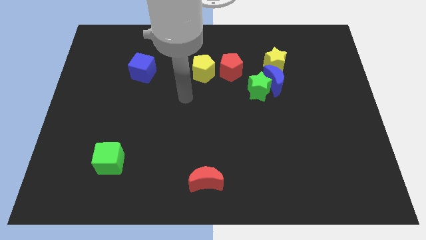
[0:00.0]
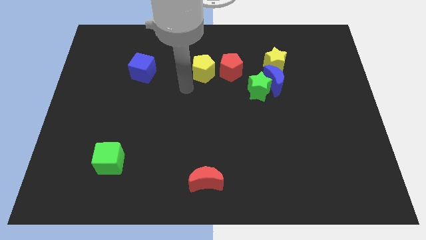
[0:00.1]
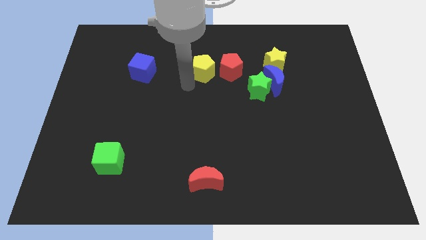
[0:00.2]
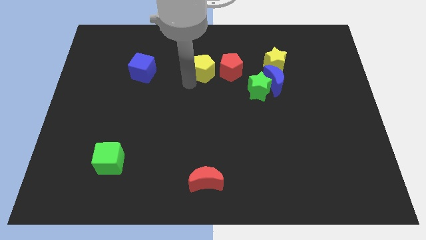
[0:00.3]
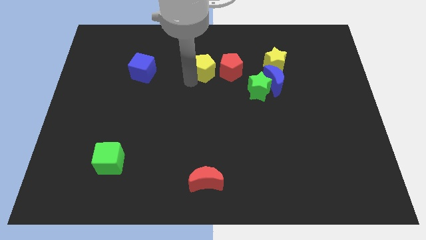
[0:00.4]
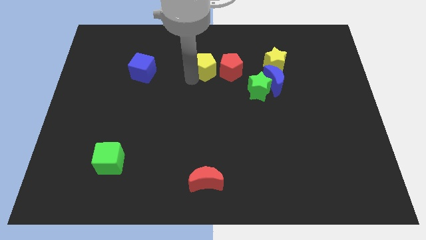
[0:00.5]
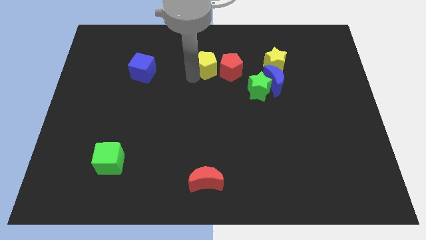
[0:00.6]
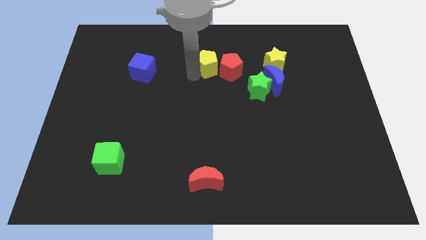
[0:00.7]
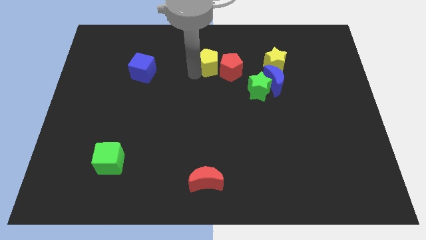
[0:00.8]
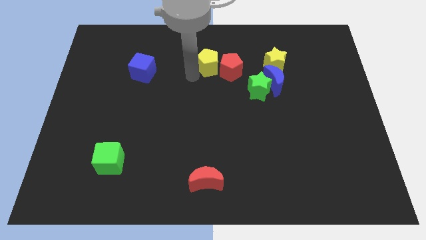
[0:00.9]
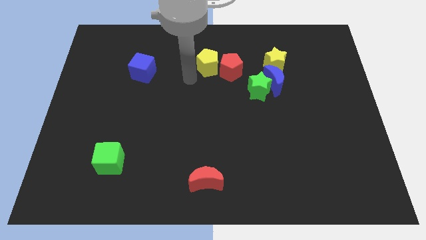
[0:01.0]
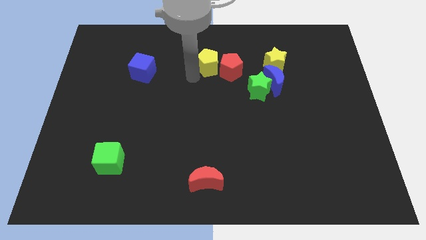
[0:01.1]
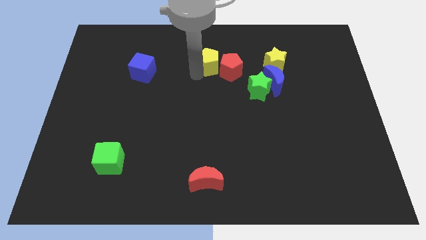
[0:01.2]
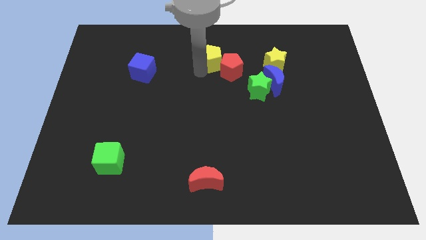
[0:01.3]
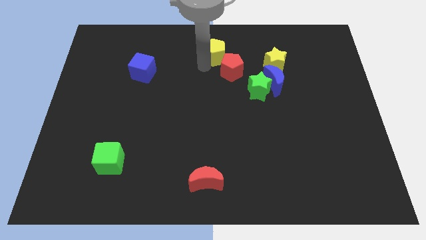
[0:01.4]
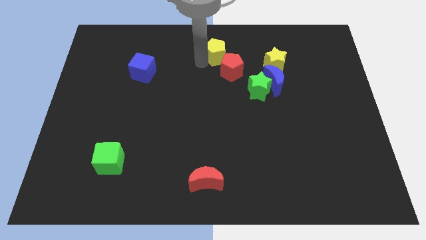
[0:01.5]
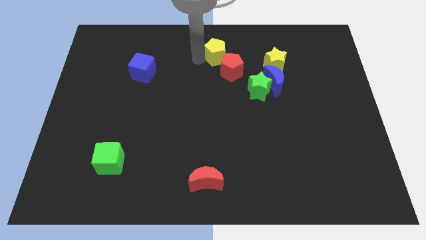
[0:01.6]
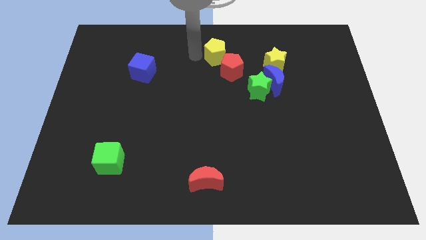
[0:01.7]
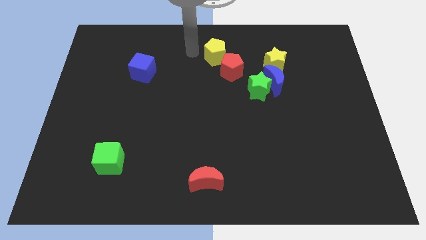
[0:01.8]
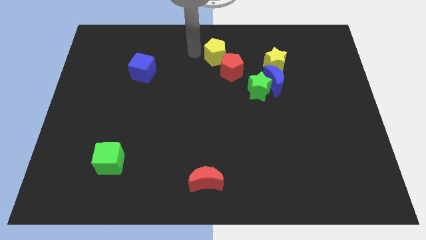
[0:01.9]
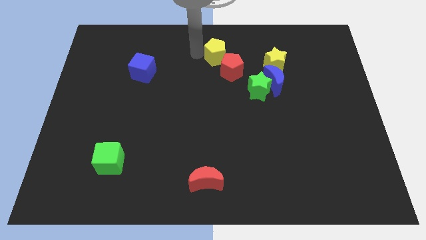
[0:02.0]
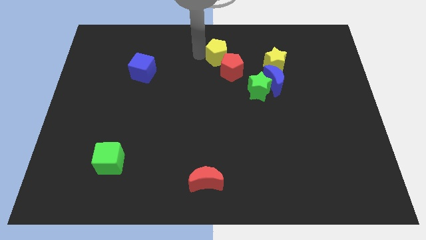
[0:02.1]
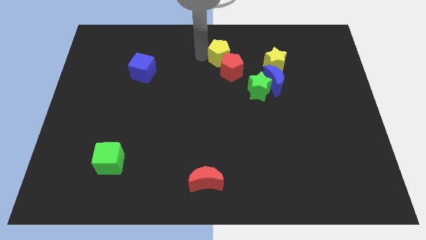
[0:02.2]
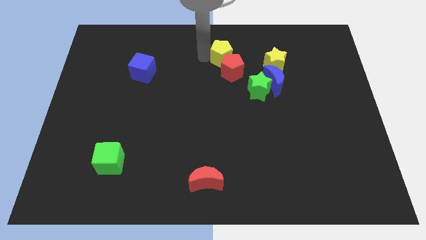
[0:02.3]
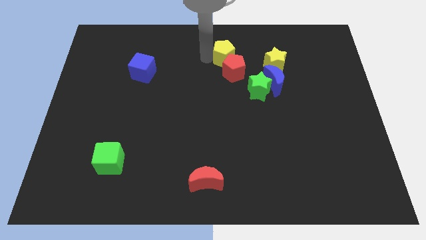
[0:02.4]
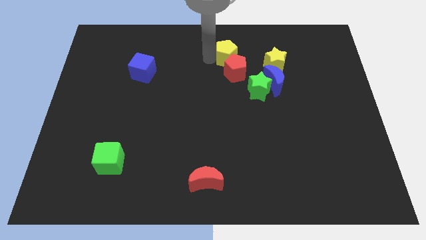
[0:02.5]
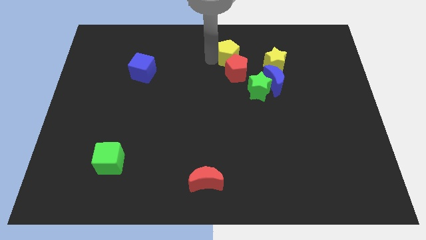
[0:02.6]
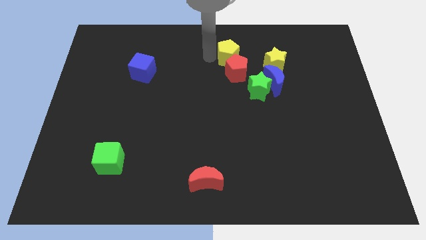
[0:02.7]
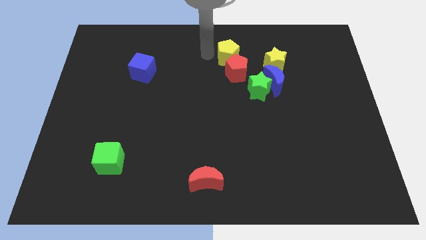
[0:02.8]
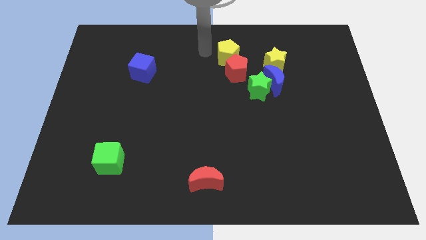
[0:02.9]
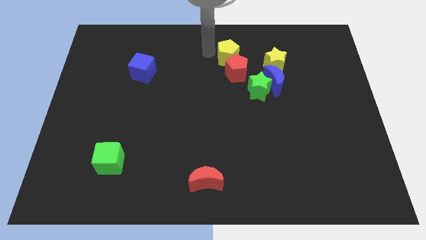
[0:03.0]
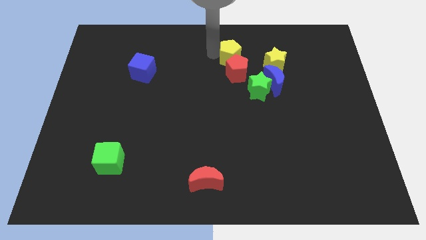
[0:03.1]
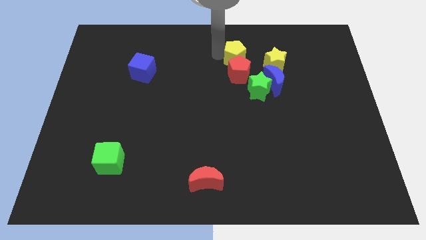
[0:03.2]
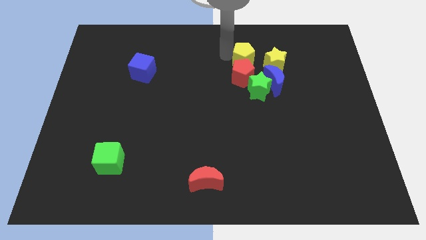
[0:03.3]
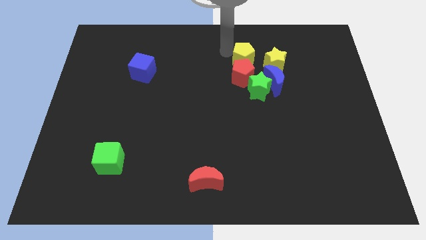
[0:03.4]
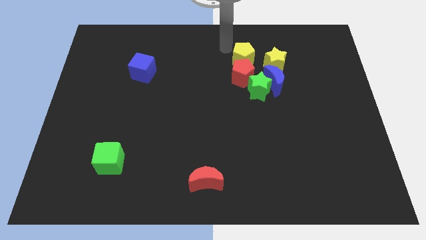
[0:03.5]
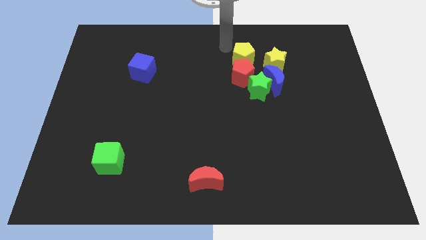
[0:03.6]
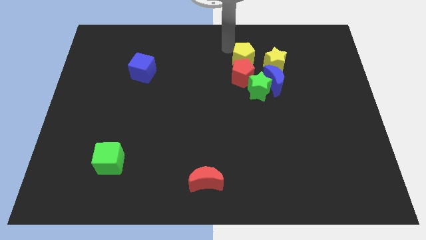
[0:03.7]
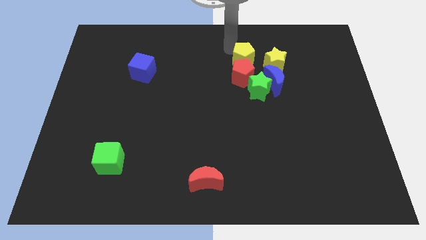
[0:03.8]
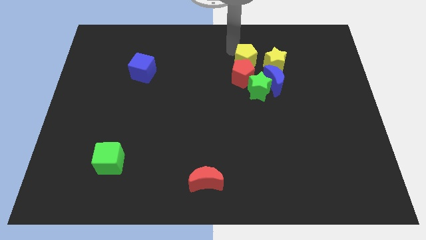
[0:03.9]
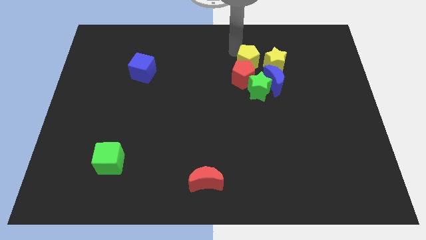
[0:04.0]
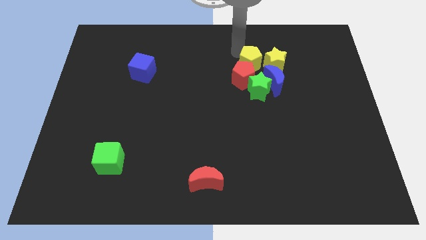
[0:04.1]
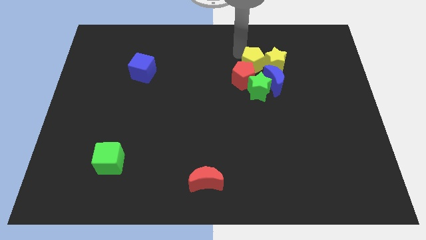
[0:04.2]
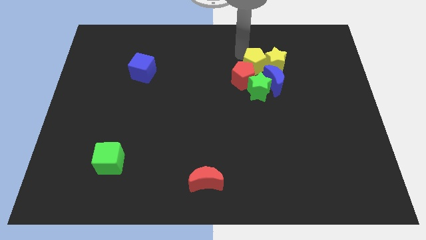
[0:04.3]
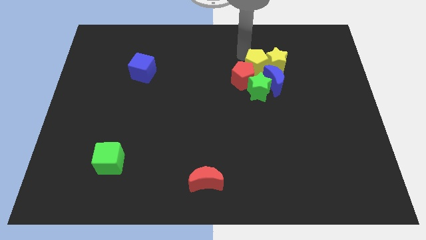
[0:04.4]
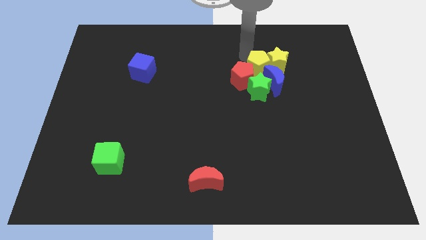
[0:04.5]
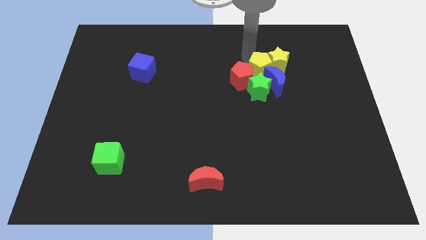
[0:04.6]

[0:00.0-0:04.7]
move the yellow pentagon close to the blue moon

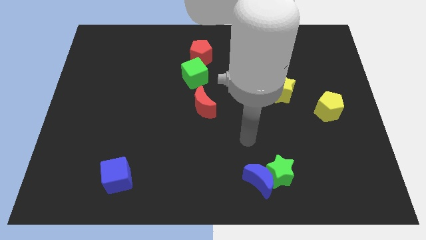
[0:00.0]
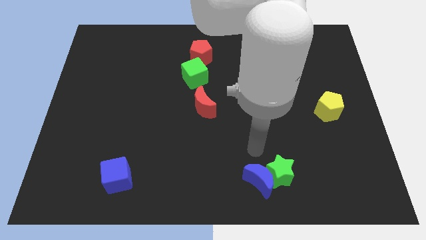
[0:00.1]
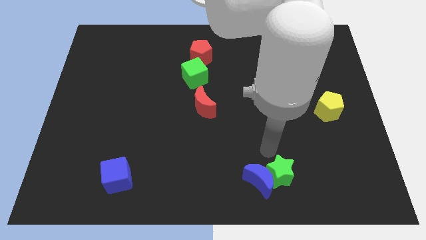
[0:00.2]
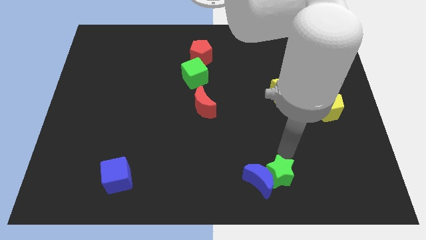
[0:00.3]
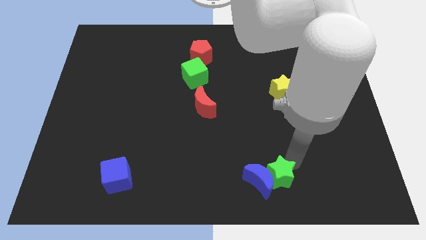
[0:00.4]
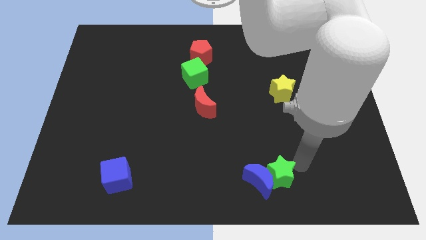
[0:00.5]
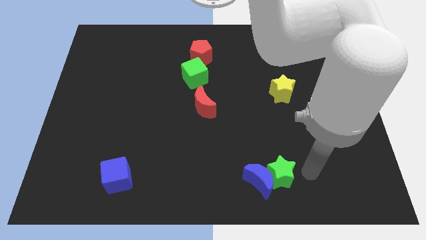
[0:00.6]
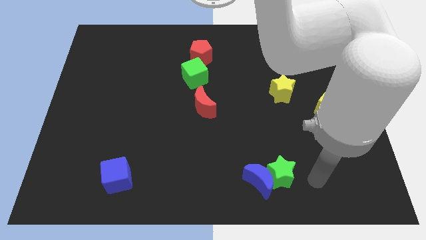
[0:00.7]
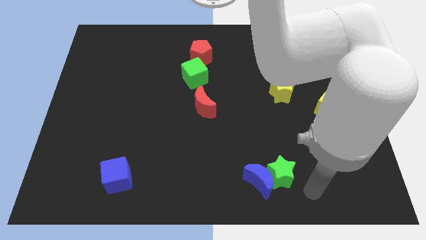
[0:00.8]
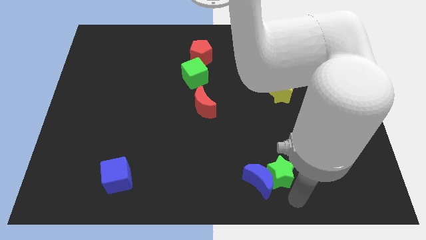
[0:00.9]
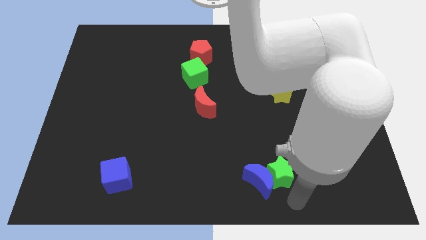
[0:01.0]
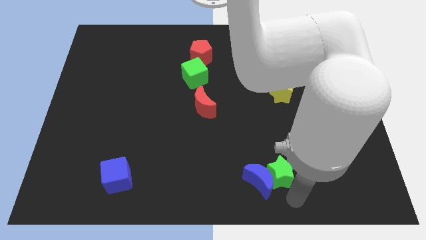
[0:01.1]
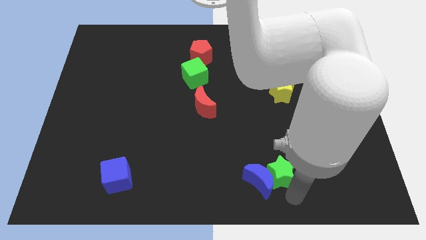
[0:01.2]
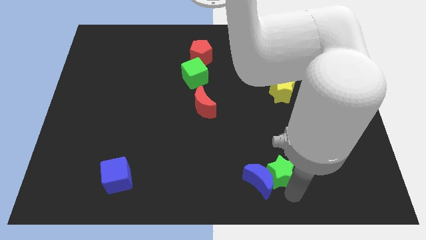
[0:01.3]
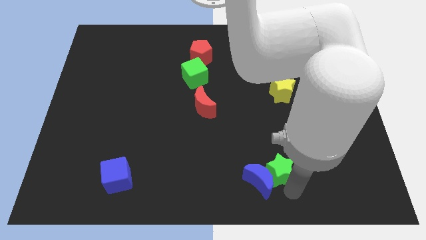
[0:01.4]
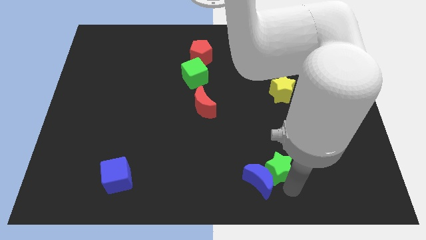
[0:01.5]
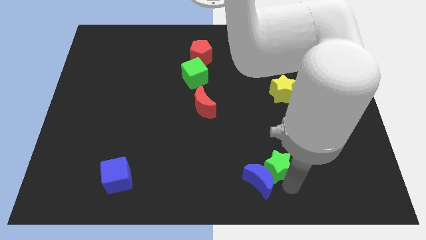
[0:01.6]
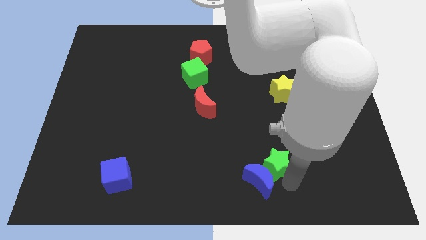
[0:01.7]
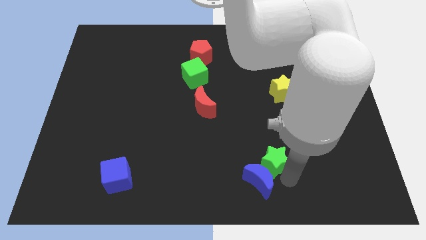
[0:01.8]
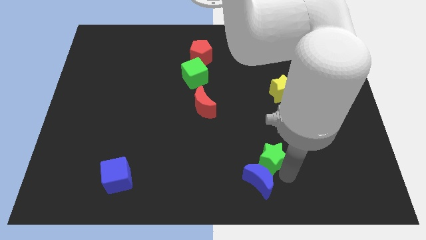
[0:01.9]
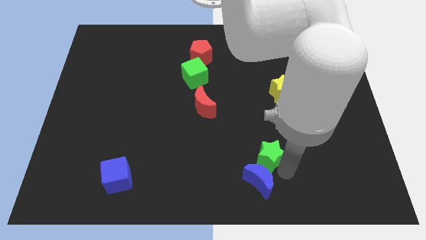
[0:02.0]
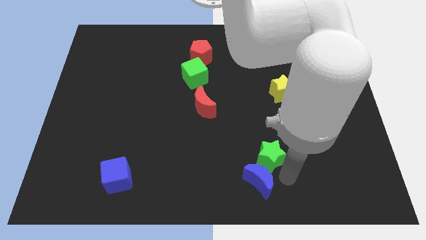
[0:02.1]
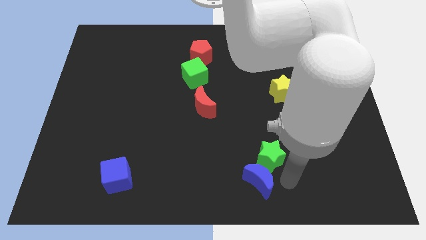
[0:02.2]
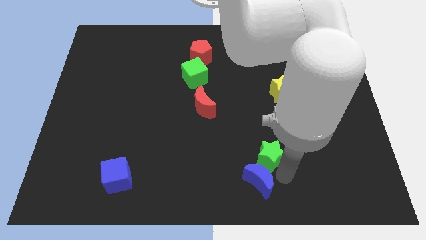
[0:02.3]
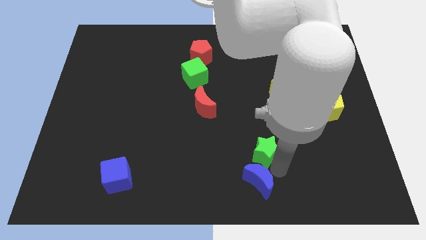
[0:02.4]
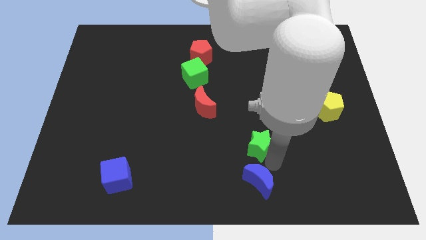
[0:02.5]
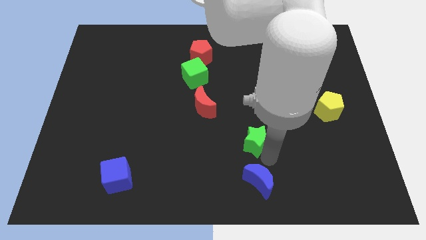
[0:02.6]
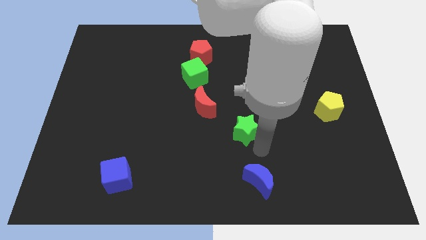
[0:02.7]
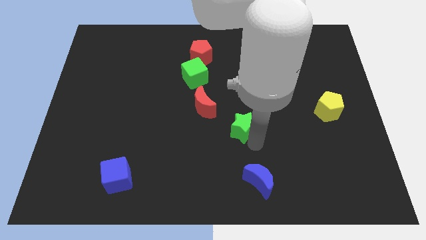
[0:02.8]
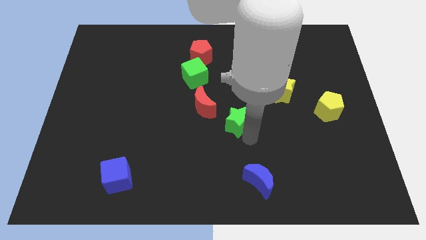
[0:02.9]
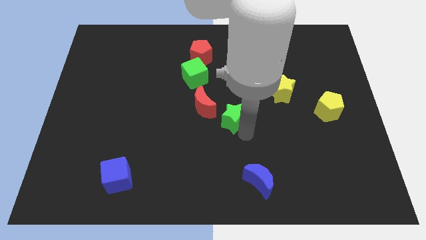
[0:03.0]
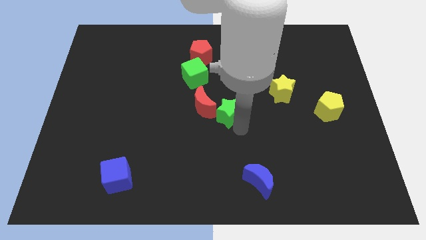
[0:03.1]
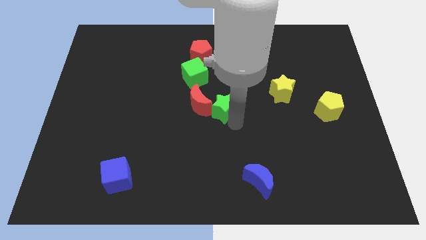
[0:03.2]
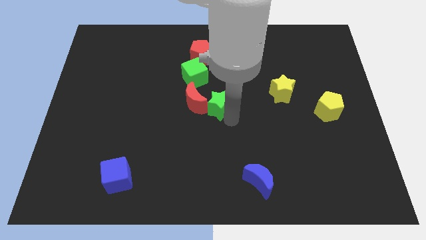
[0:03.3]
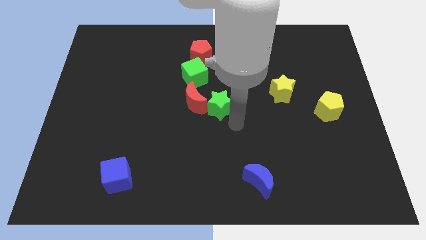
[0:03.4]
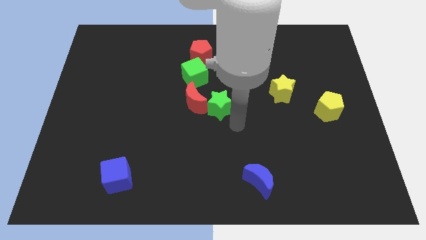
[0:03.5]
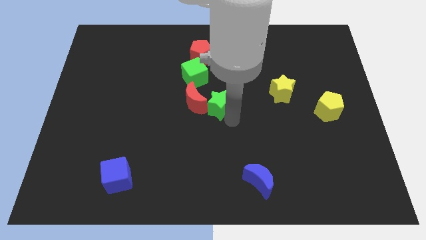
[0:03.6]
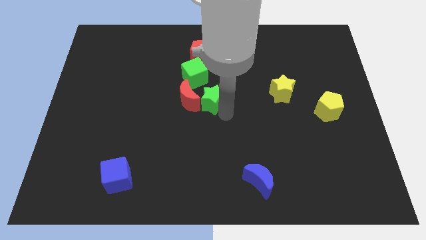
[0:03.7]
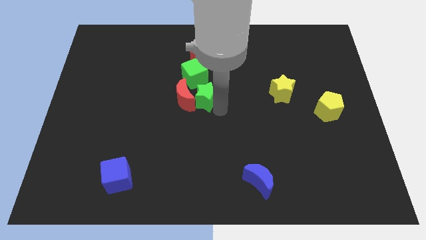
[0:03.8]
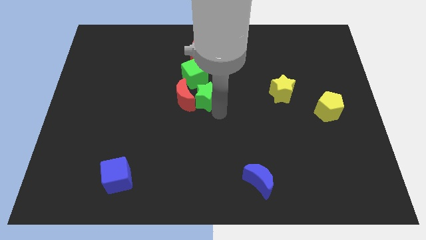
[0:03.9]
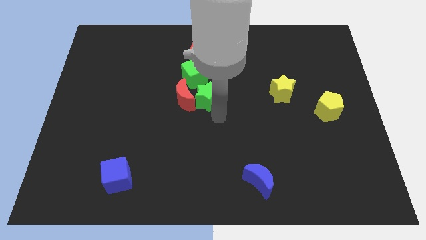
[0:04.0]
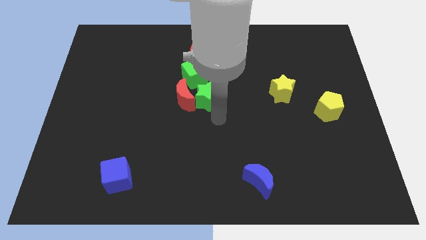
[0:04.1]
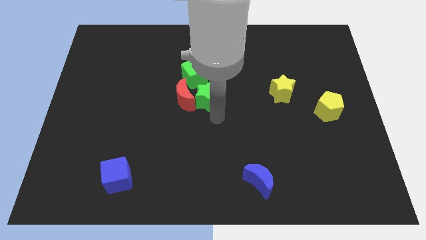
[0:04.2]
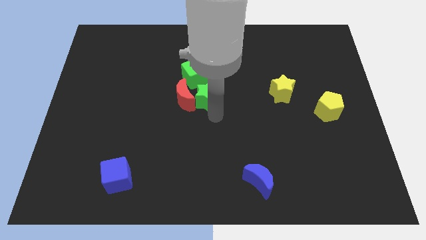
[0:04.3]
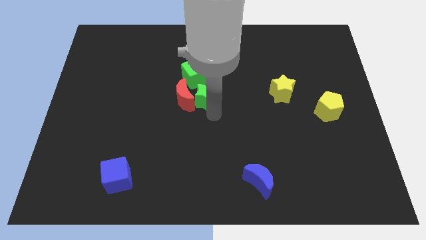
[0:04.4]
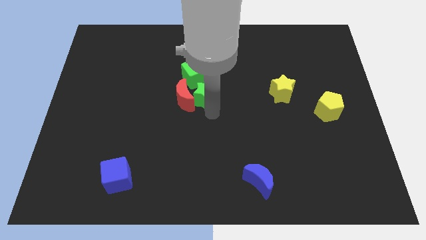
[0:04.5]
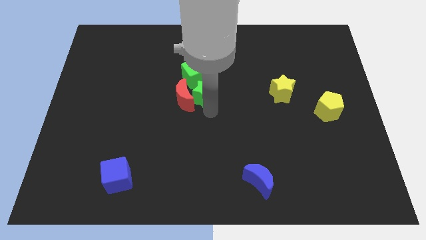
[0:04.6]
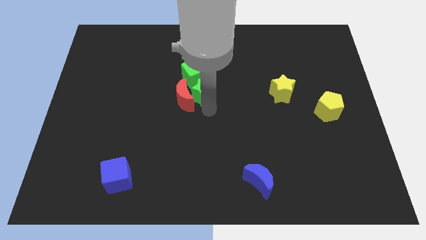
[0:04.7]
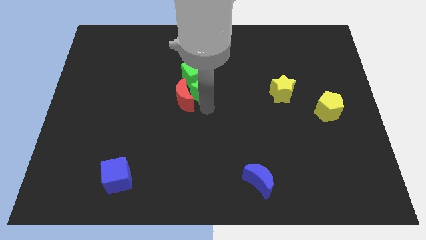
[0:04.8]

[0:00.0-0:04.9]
slide the green star to the green cube
